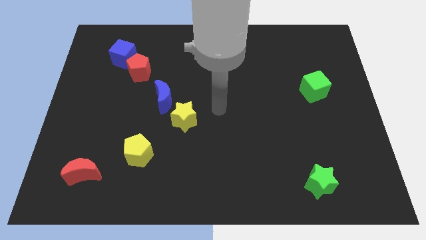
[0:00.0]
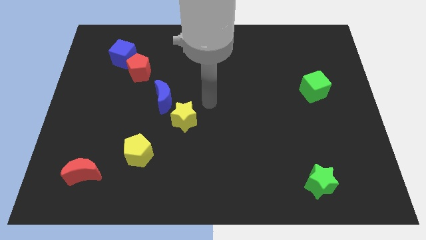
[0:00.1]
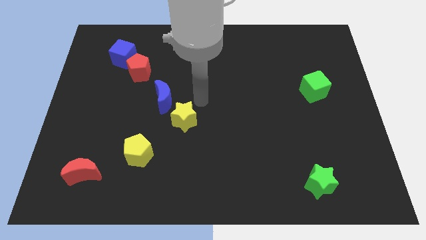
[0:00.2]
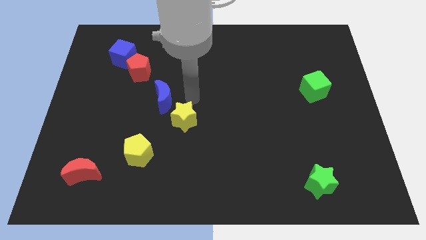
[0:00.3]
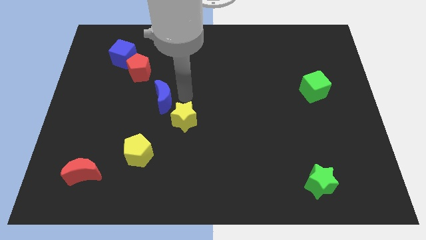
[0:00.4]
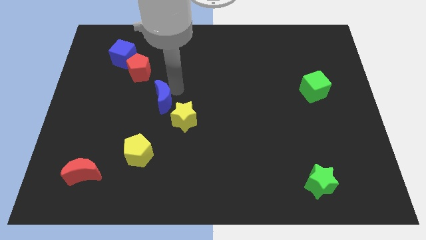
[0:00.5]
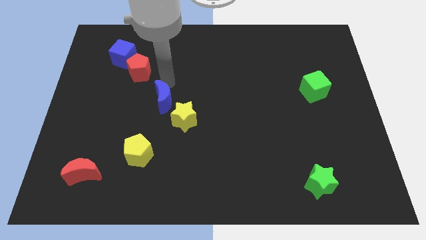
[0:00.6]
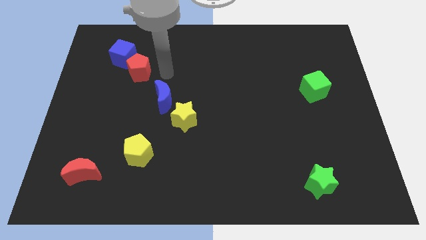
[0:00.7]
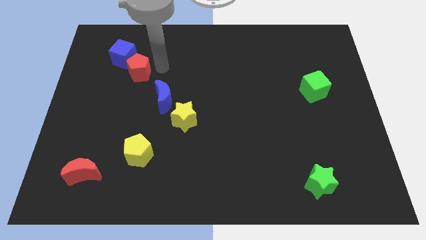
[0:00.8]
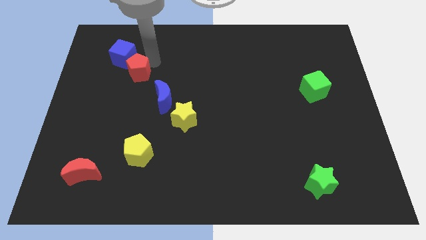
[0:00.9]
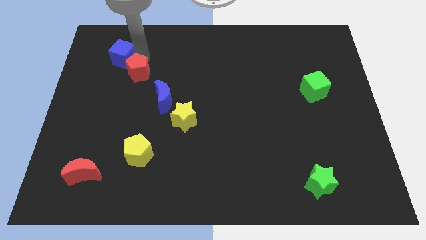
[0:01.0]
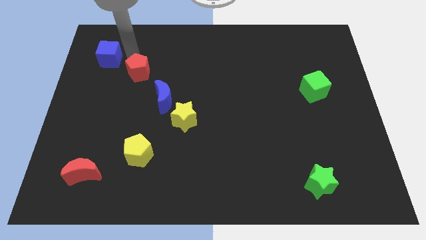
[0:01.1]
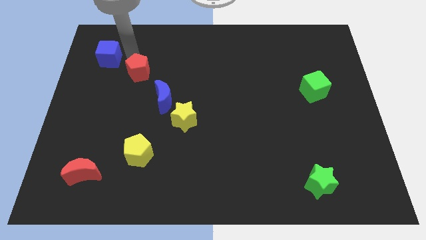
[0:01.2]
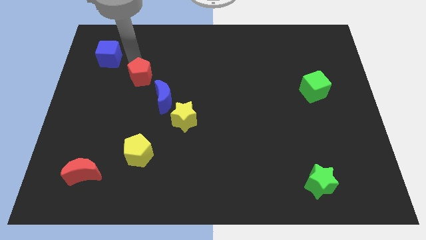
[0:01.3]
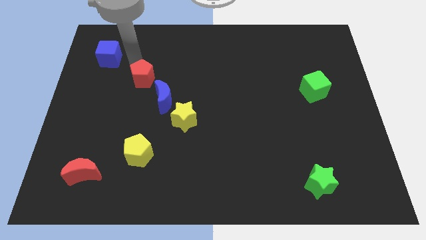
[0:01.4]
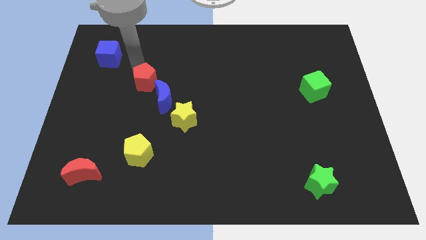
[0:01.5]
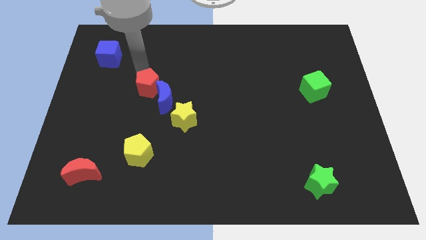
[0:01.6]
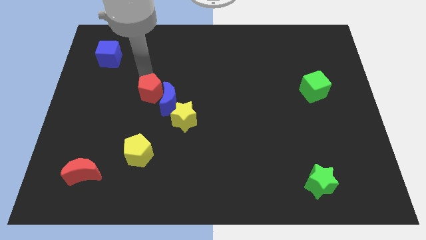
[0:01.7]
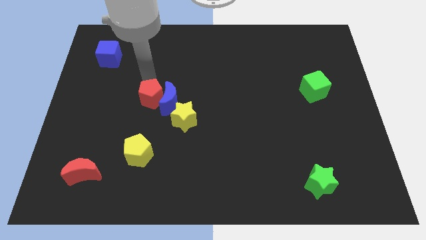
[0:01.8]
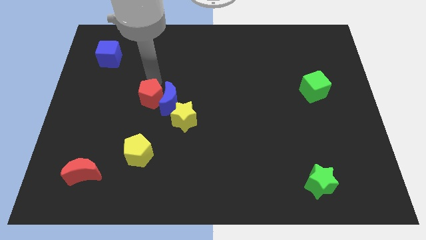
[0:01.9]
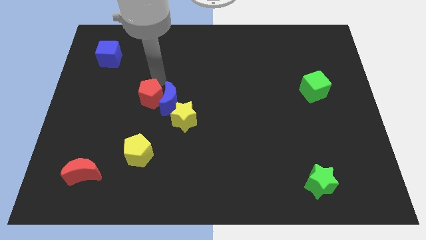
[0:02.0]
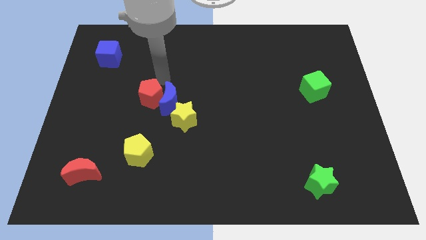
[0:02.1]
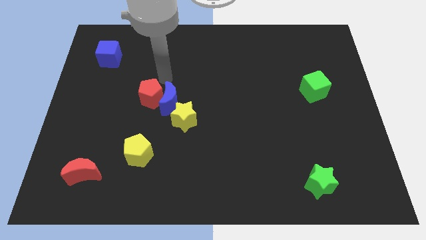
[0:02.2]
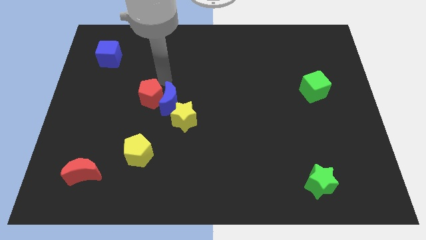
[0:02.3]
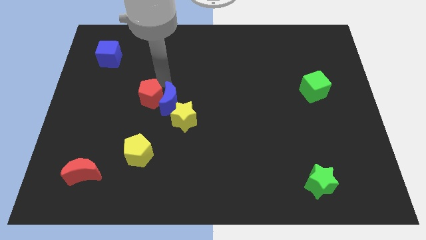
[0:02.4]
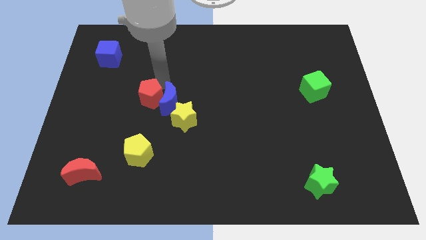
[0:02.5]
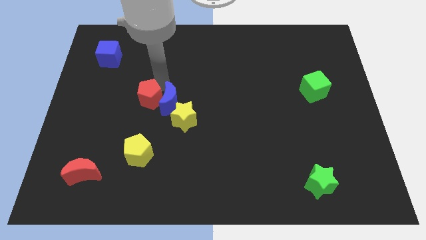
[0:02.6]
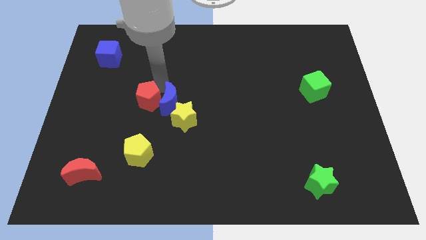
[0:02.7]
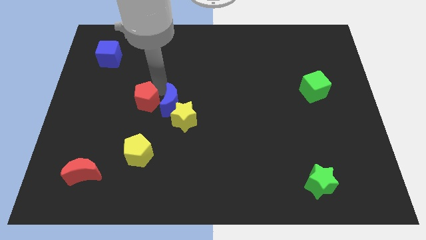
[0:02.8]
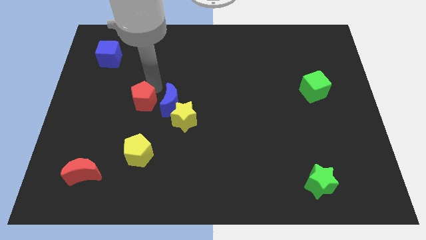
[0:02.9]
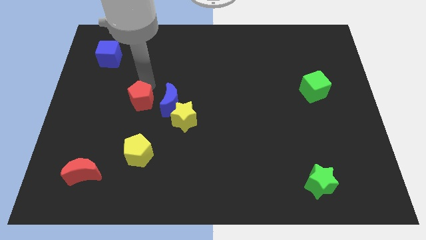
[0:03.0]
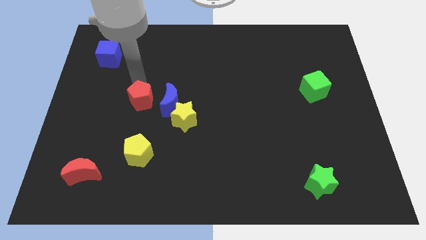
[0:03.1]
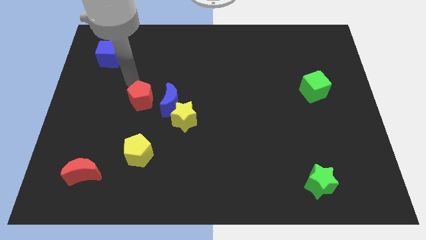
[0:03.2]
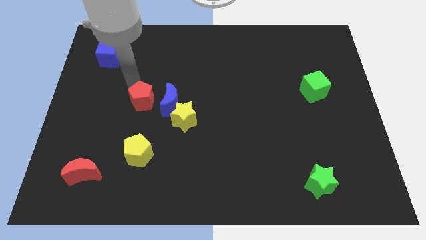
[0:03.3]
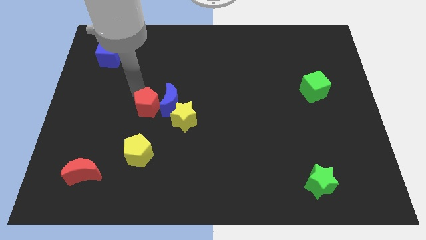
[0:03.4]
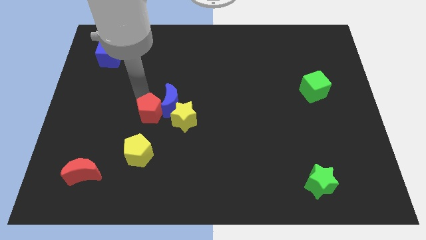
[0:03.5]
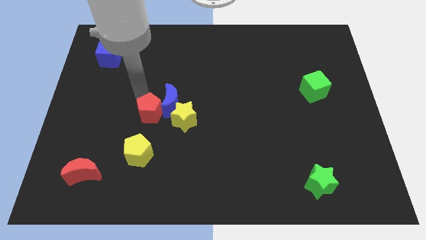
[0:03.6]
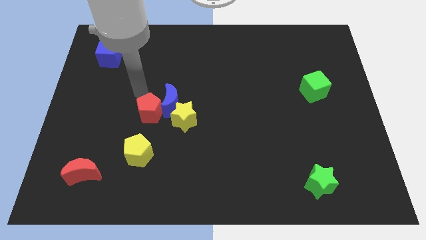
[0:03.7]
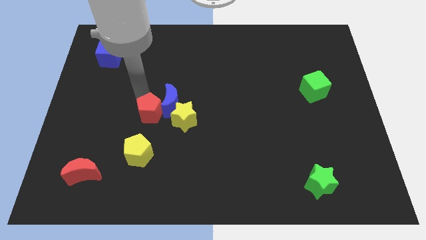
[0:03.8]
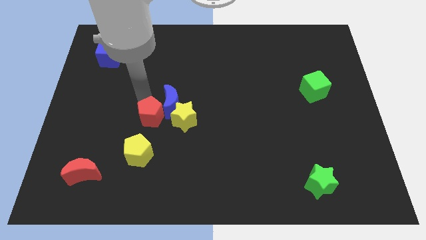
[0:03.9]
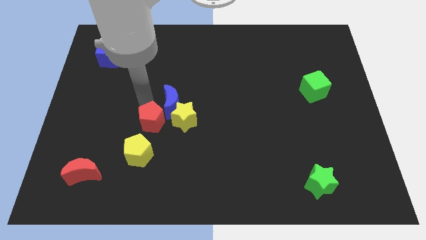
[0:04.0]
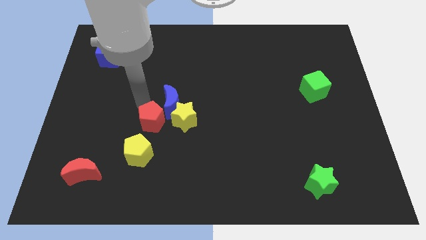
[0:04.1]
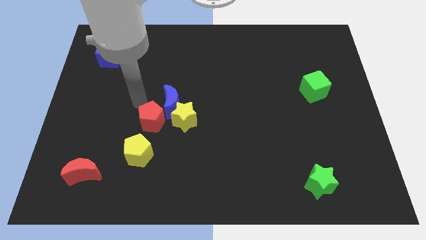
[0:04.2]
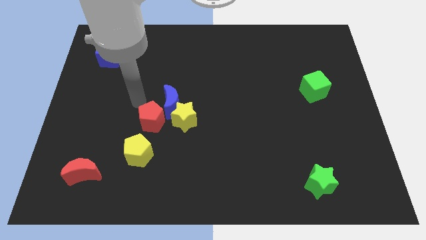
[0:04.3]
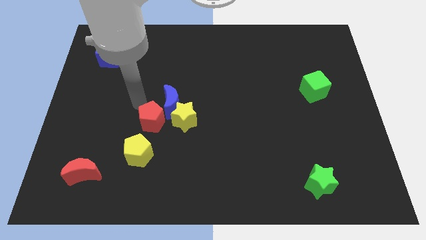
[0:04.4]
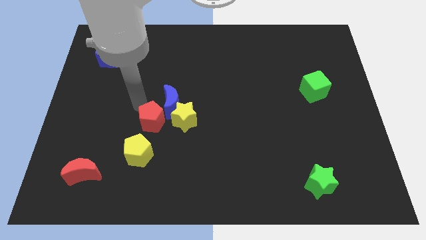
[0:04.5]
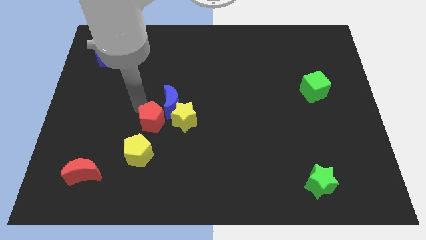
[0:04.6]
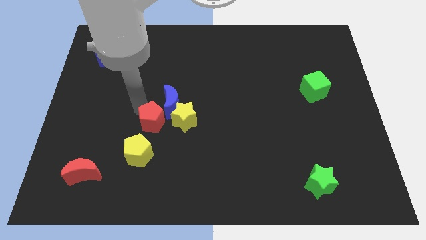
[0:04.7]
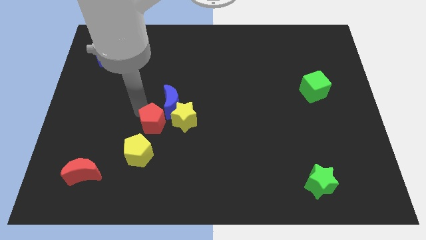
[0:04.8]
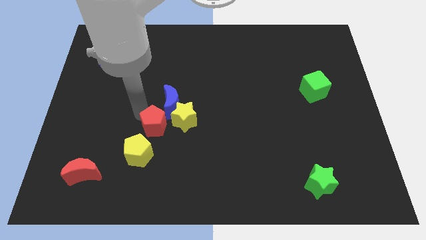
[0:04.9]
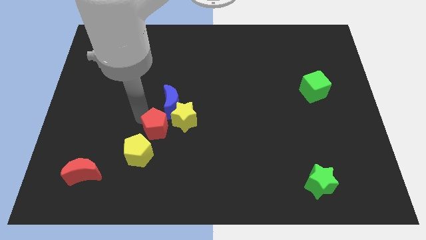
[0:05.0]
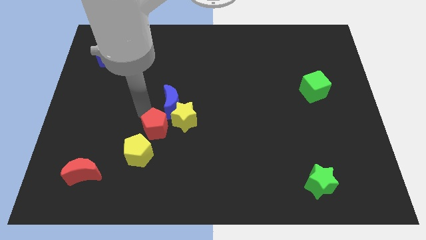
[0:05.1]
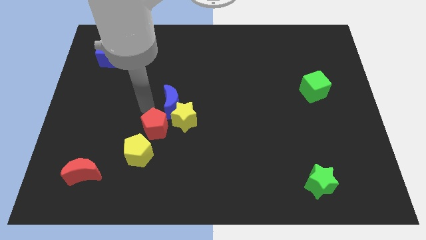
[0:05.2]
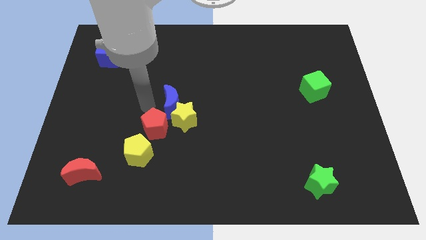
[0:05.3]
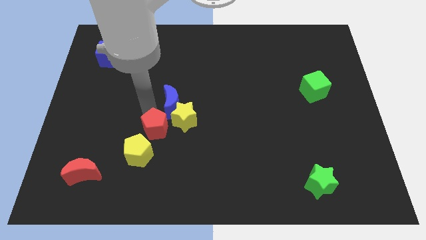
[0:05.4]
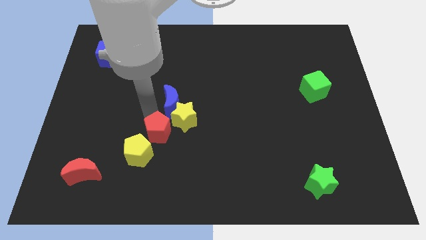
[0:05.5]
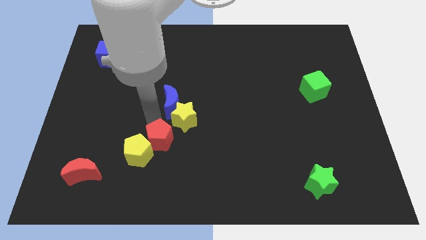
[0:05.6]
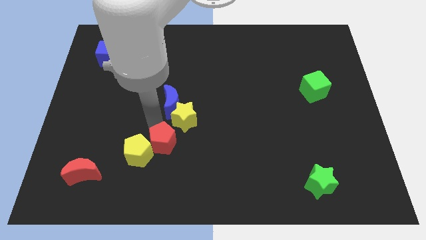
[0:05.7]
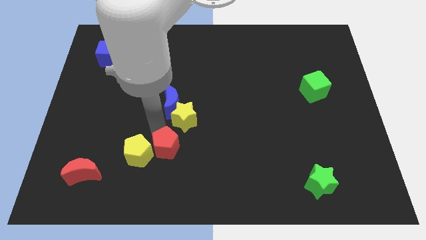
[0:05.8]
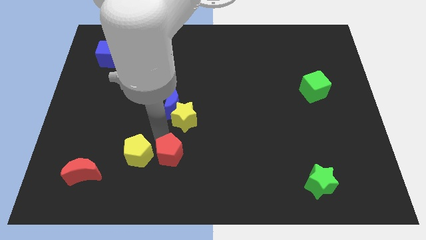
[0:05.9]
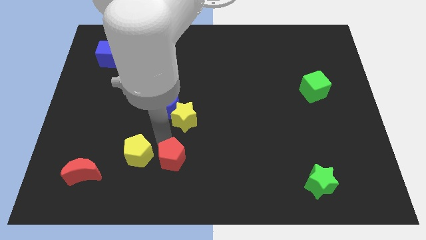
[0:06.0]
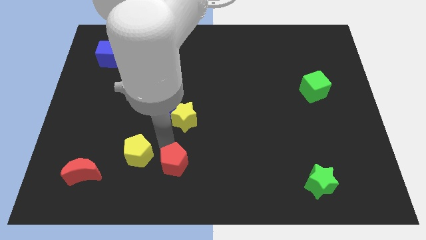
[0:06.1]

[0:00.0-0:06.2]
put the red pentagon to the bottom side

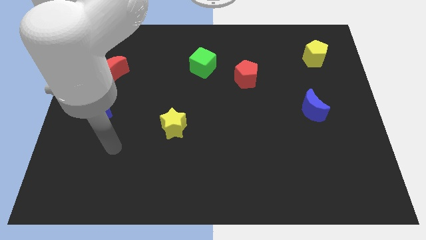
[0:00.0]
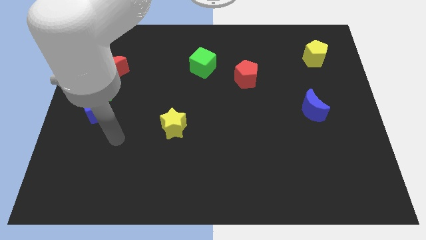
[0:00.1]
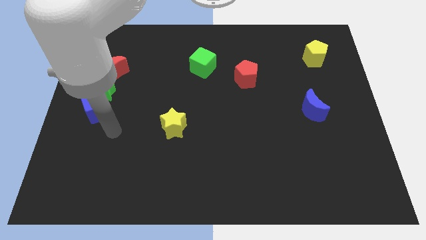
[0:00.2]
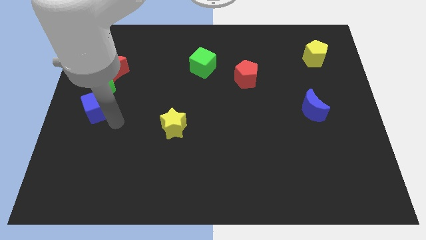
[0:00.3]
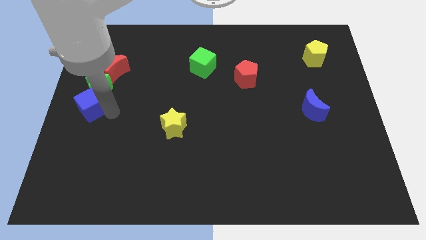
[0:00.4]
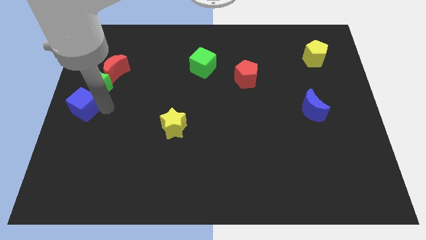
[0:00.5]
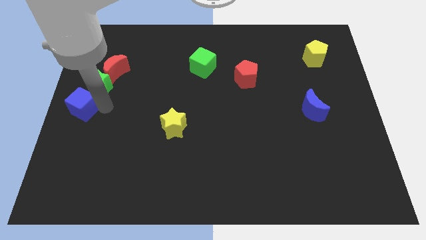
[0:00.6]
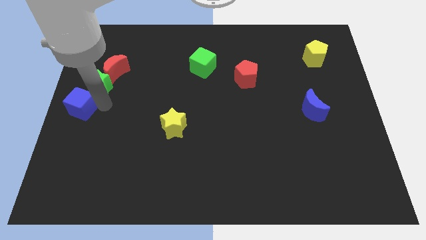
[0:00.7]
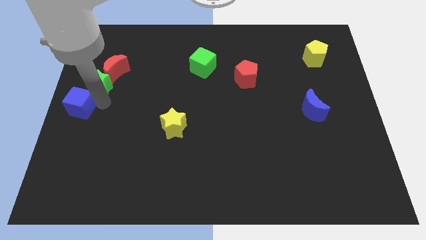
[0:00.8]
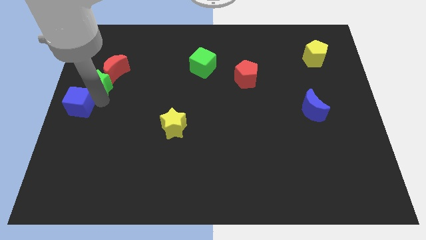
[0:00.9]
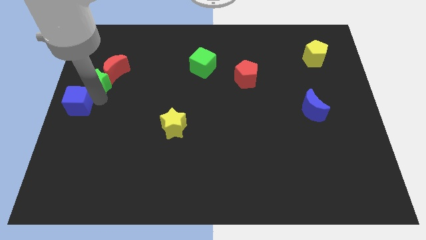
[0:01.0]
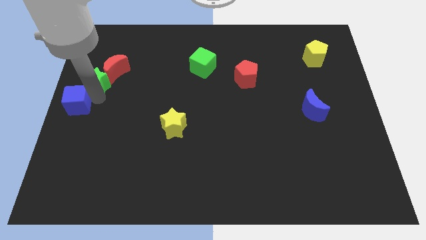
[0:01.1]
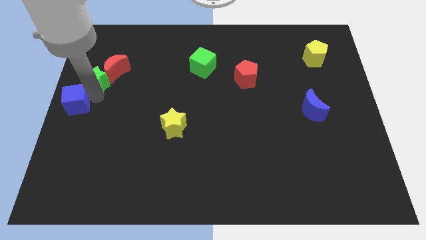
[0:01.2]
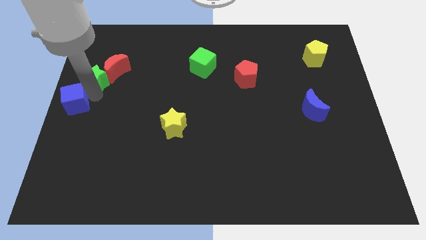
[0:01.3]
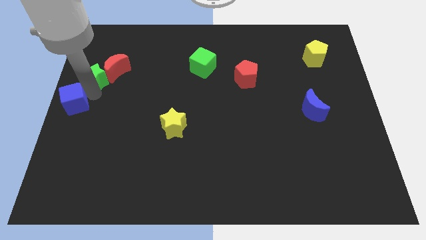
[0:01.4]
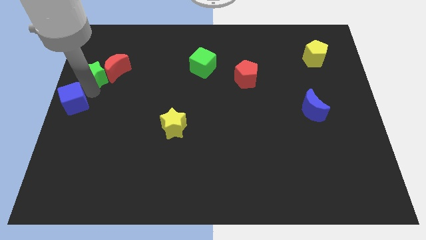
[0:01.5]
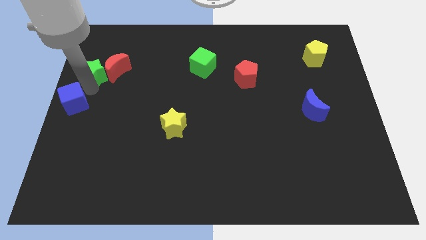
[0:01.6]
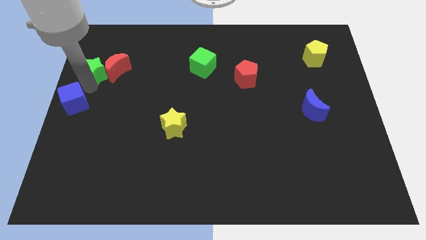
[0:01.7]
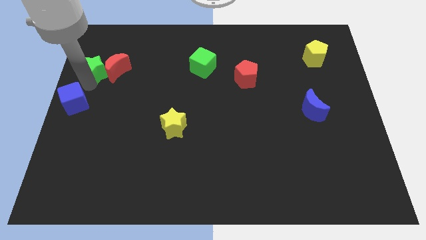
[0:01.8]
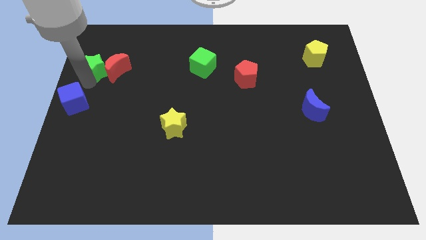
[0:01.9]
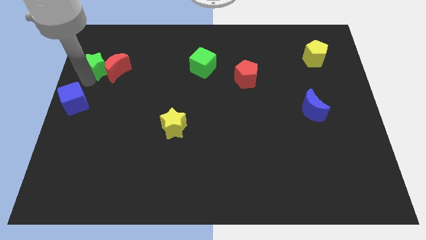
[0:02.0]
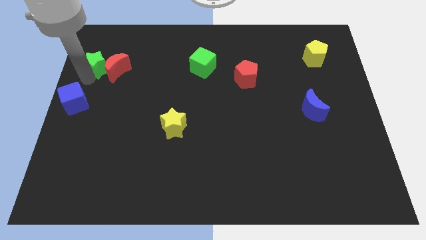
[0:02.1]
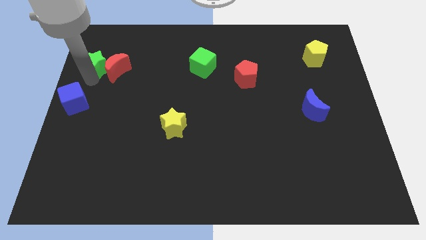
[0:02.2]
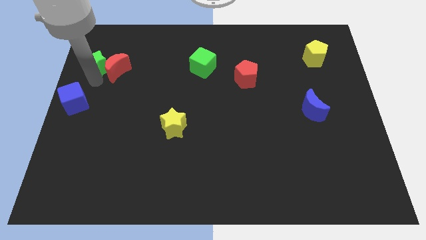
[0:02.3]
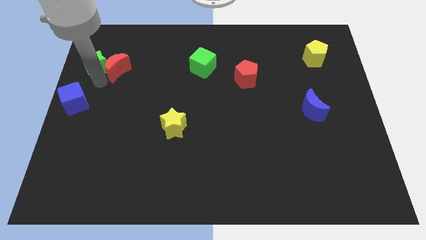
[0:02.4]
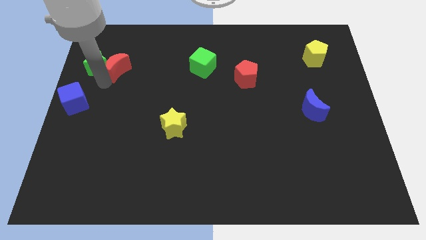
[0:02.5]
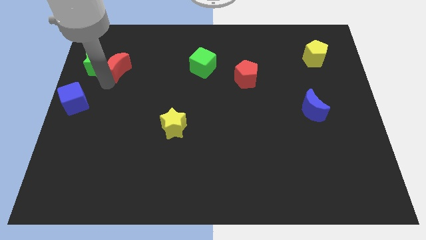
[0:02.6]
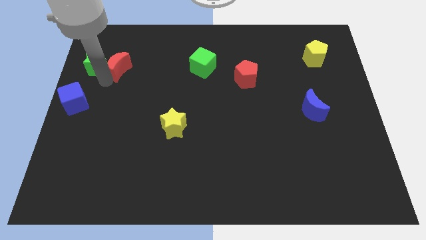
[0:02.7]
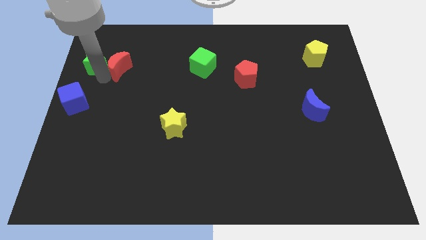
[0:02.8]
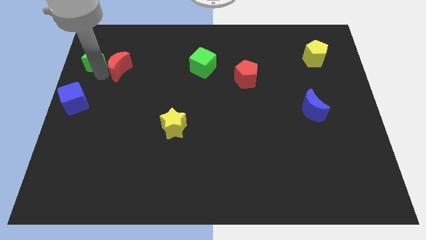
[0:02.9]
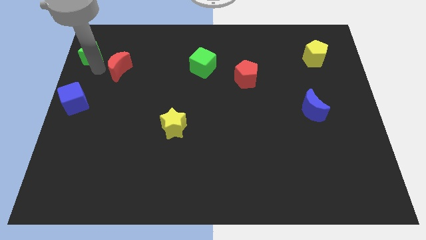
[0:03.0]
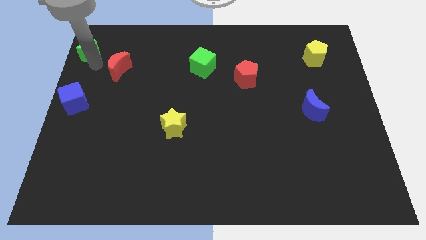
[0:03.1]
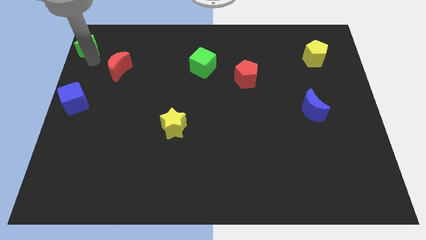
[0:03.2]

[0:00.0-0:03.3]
put the green star to the top left corner
